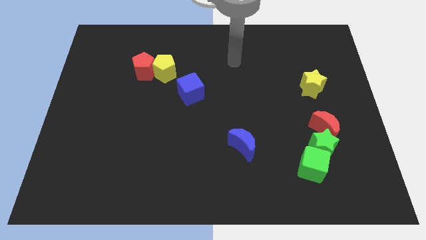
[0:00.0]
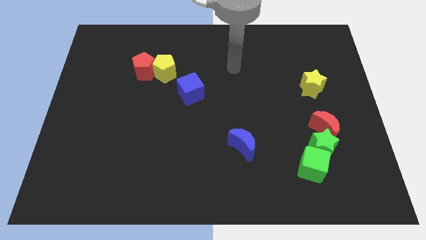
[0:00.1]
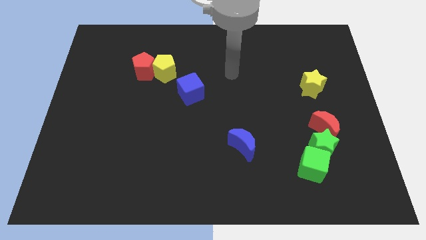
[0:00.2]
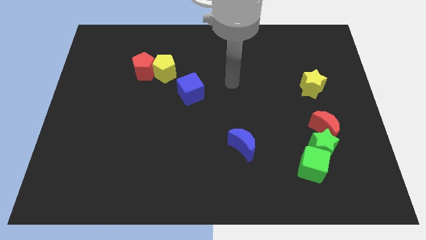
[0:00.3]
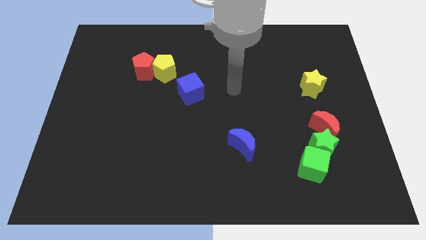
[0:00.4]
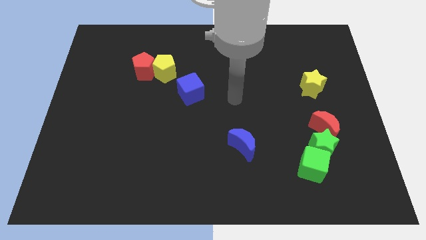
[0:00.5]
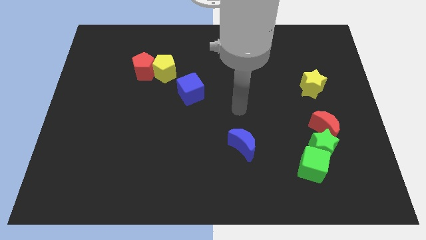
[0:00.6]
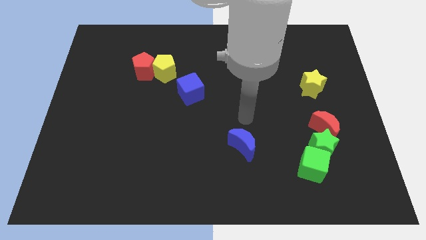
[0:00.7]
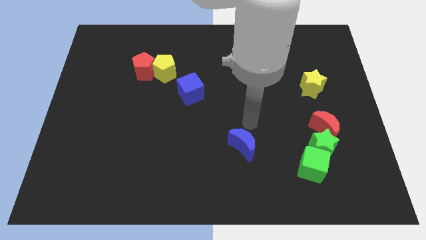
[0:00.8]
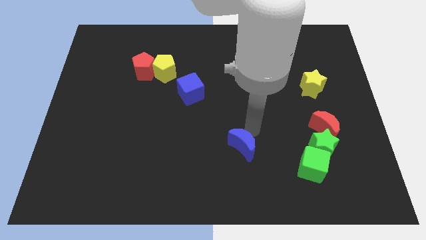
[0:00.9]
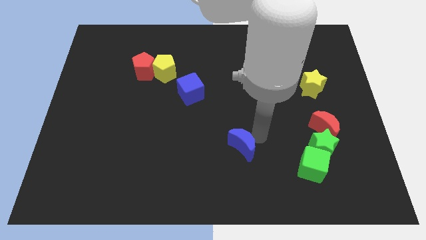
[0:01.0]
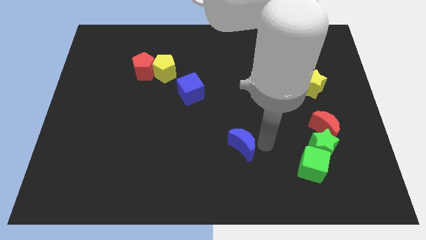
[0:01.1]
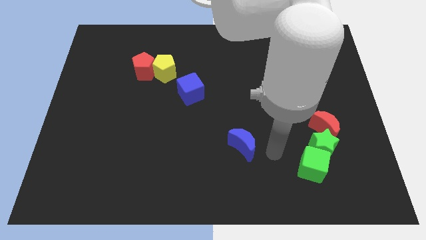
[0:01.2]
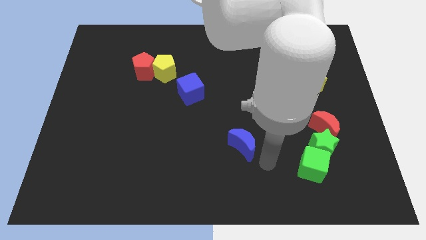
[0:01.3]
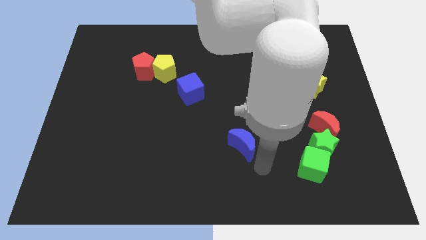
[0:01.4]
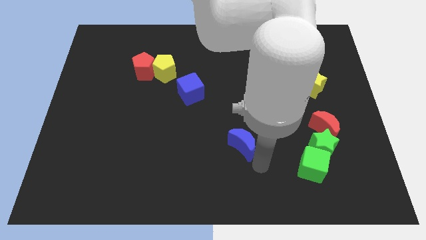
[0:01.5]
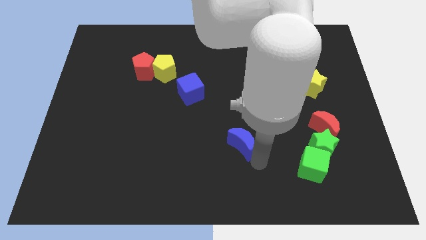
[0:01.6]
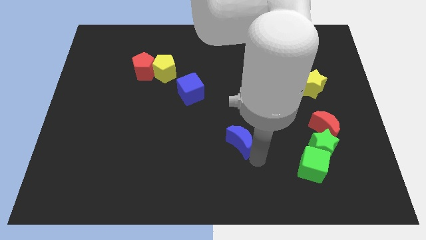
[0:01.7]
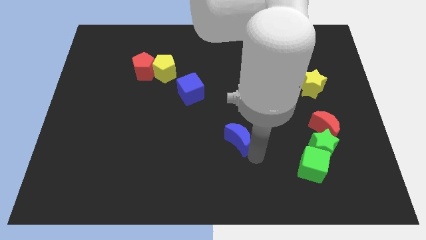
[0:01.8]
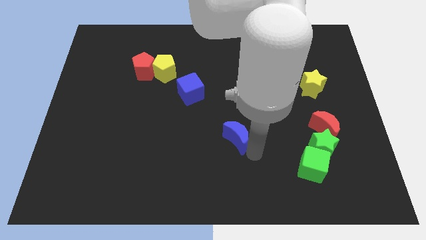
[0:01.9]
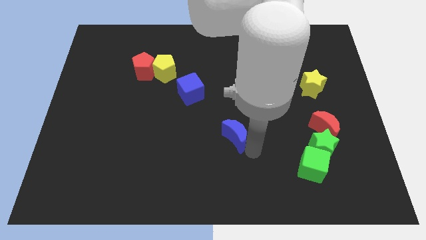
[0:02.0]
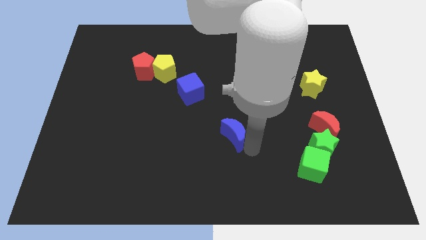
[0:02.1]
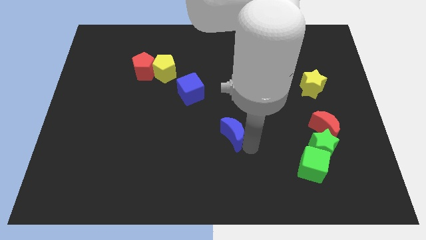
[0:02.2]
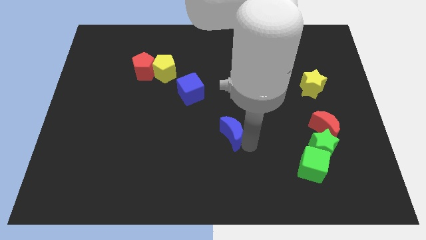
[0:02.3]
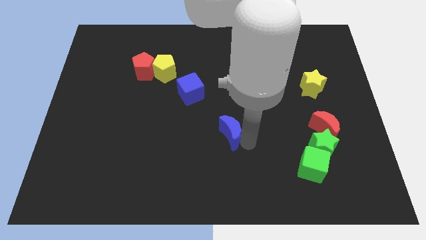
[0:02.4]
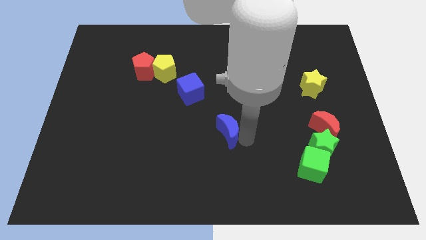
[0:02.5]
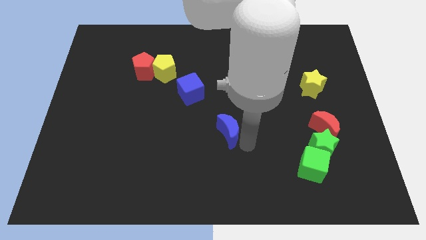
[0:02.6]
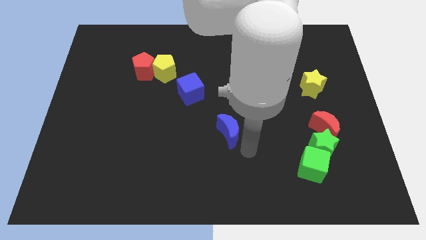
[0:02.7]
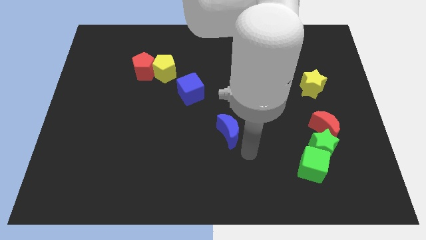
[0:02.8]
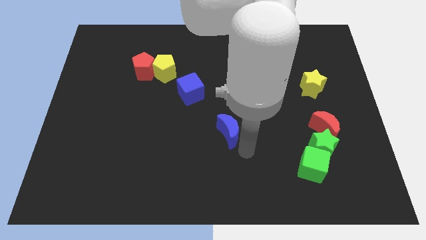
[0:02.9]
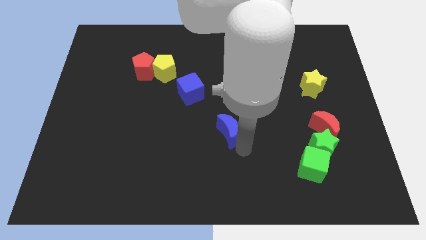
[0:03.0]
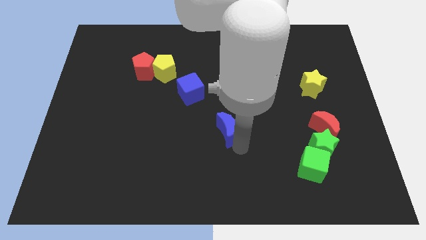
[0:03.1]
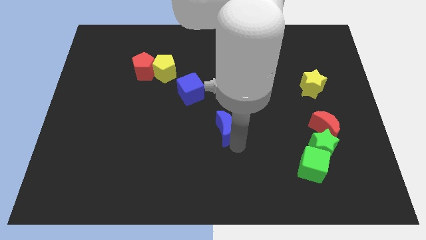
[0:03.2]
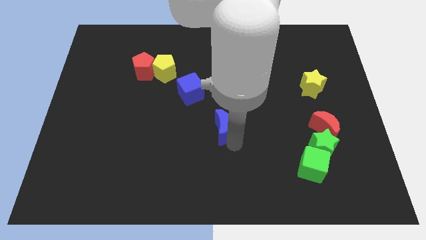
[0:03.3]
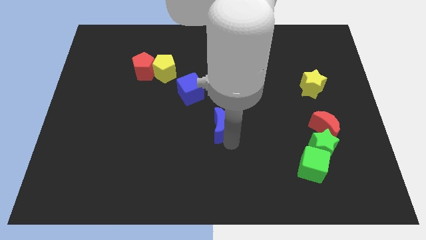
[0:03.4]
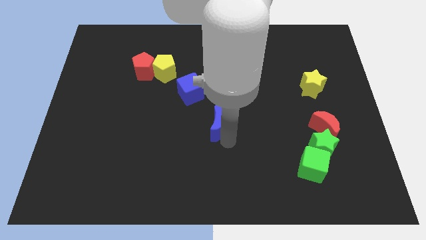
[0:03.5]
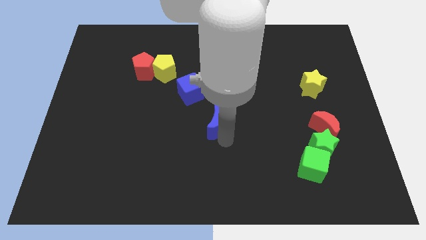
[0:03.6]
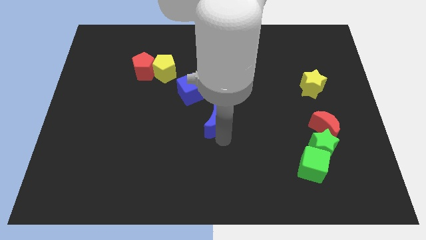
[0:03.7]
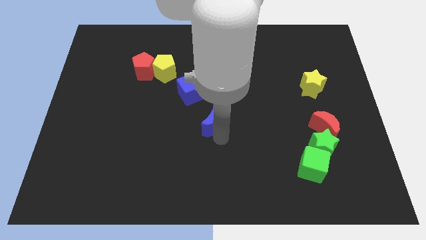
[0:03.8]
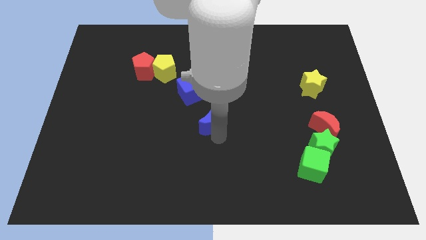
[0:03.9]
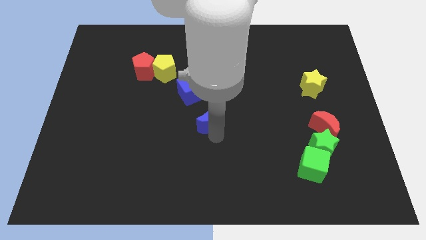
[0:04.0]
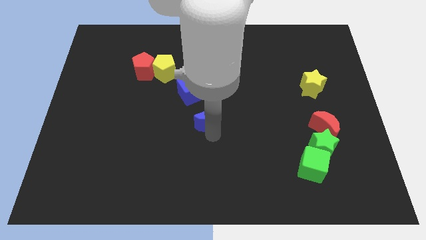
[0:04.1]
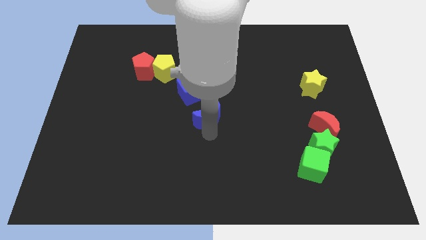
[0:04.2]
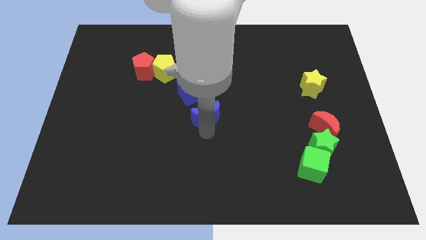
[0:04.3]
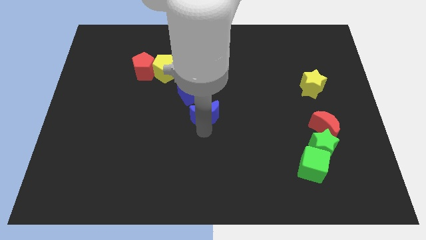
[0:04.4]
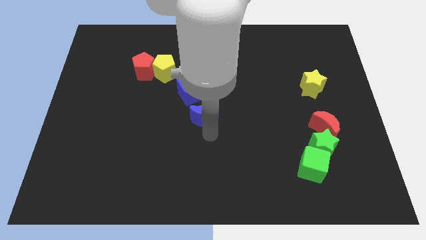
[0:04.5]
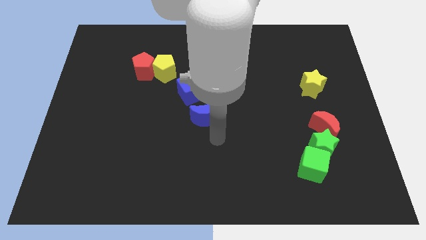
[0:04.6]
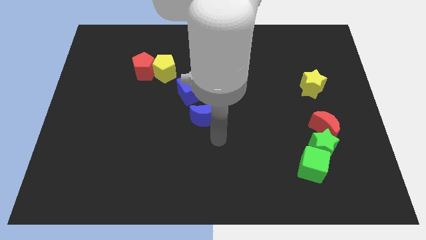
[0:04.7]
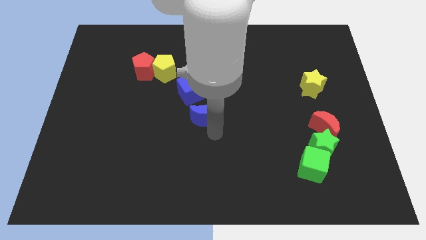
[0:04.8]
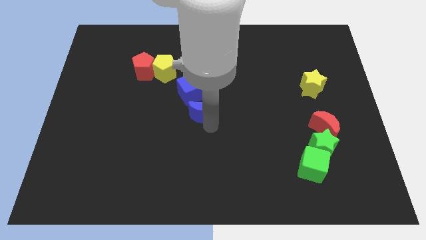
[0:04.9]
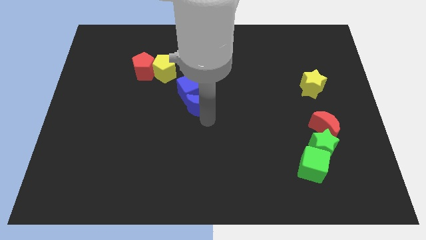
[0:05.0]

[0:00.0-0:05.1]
move the blue moon next to the blue cube

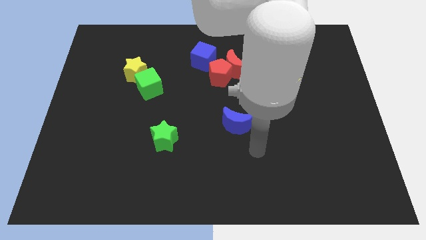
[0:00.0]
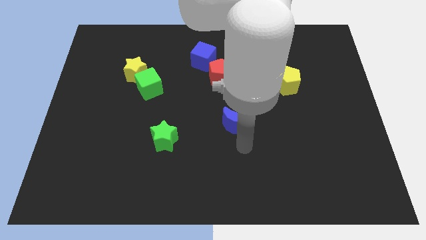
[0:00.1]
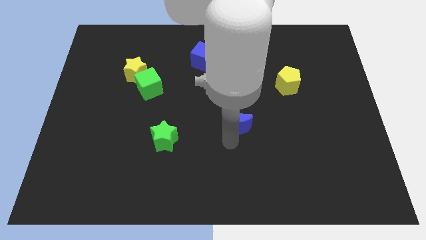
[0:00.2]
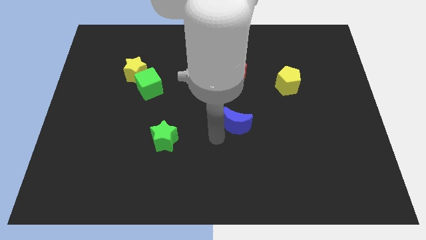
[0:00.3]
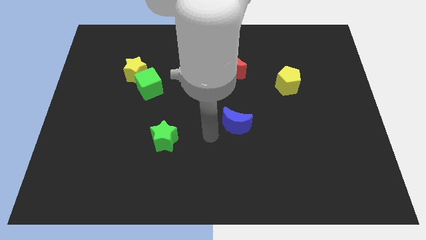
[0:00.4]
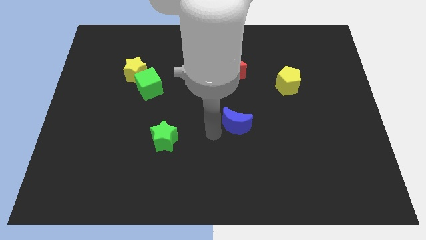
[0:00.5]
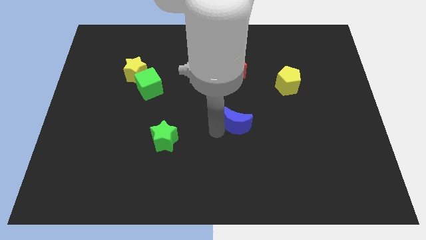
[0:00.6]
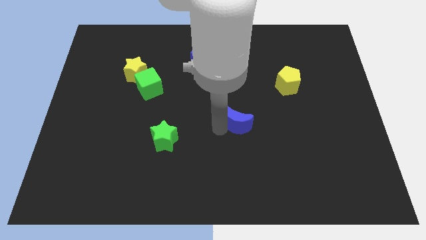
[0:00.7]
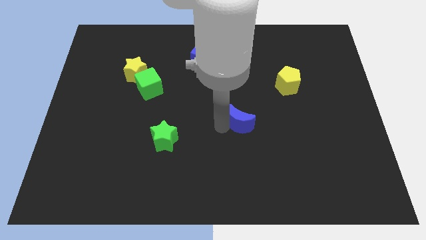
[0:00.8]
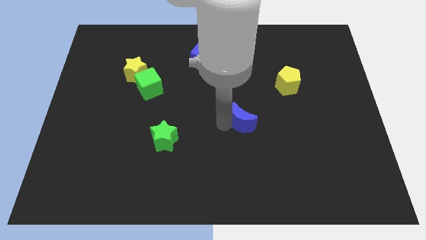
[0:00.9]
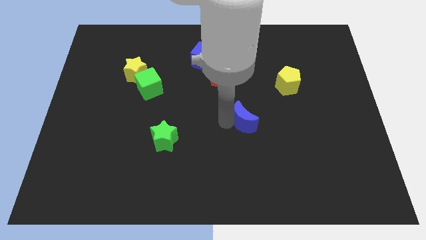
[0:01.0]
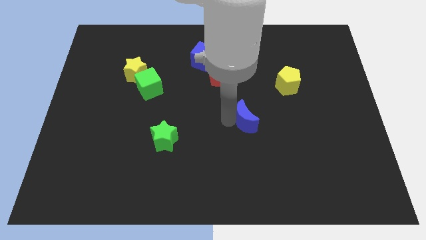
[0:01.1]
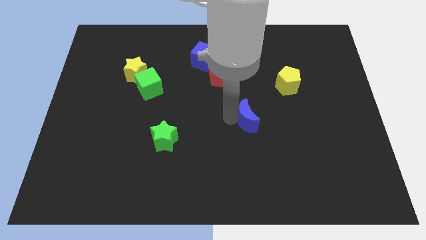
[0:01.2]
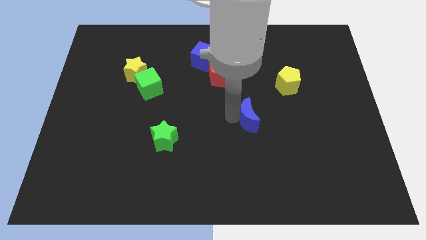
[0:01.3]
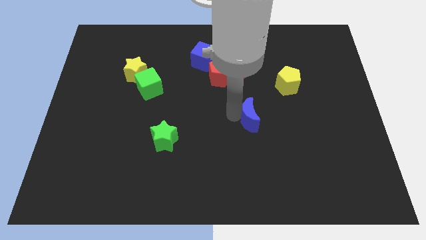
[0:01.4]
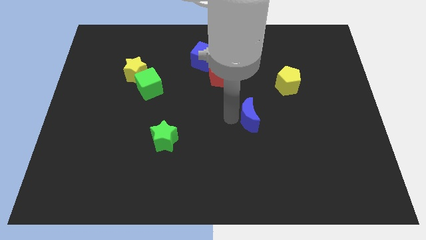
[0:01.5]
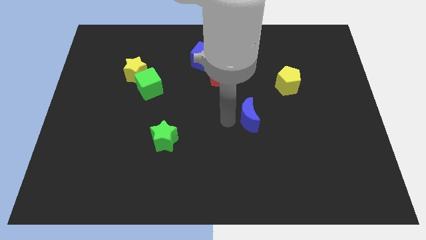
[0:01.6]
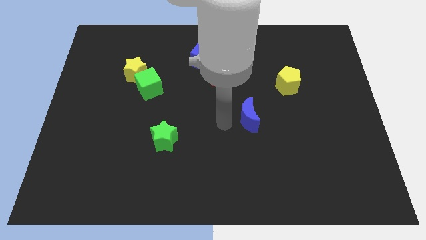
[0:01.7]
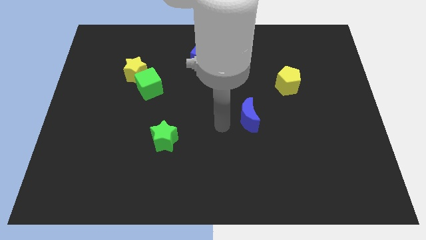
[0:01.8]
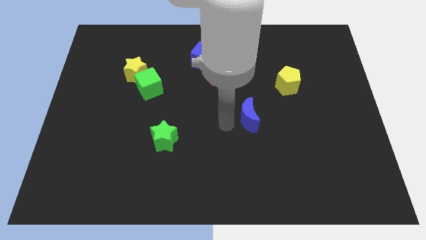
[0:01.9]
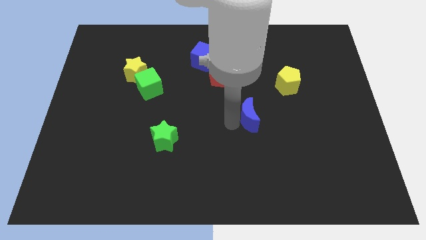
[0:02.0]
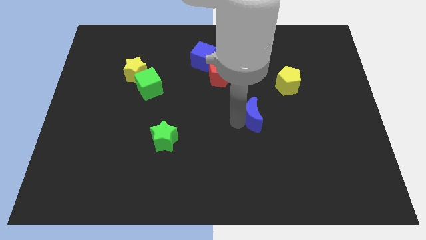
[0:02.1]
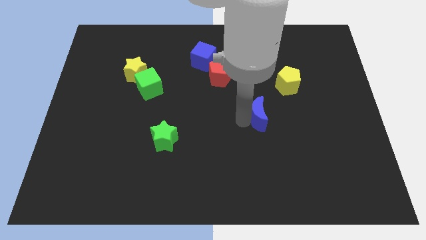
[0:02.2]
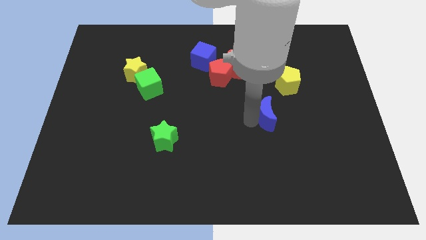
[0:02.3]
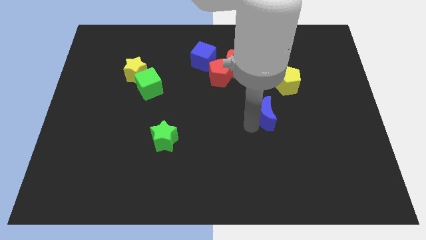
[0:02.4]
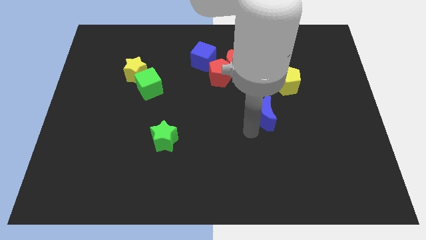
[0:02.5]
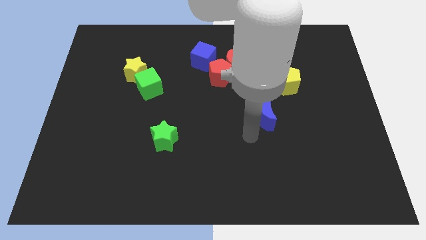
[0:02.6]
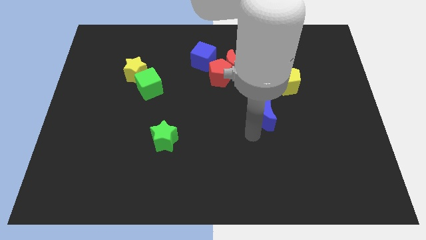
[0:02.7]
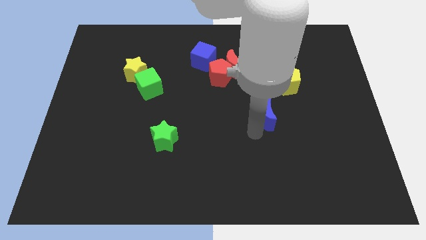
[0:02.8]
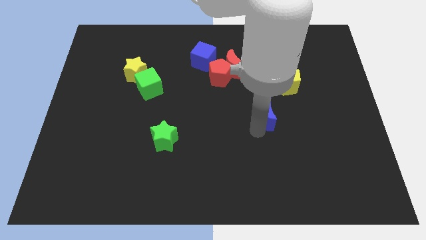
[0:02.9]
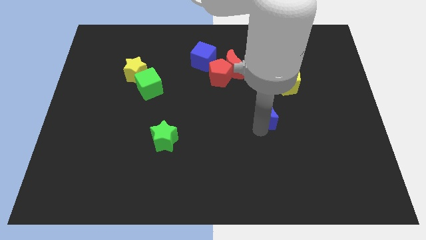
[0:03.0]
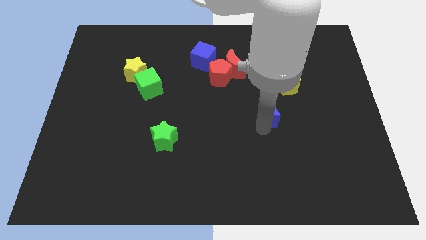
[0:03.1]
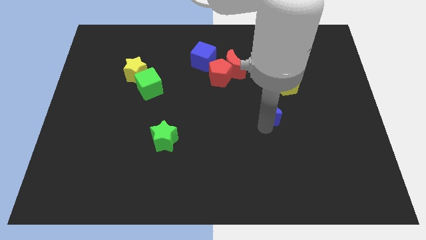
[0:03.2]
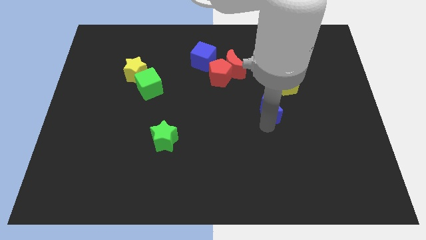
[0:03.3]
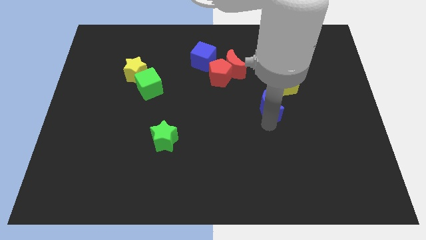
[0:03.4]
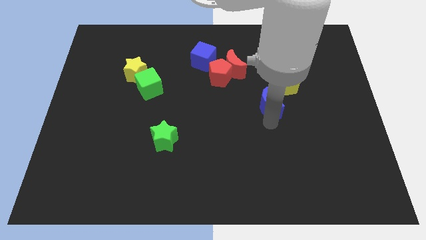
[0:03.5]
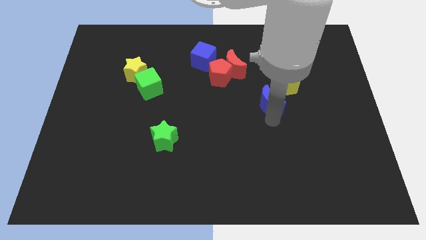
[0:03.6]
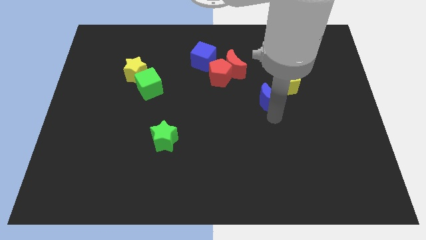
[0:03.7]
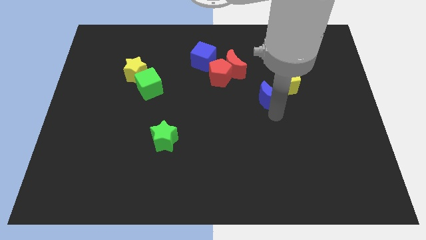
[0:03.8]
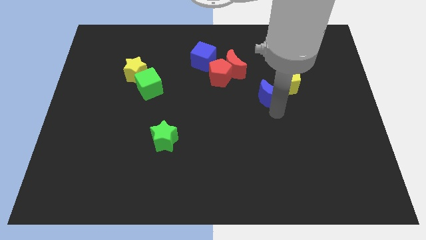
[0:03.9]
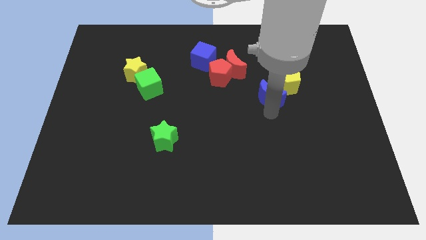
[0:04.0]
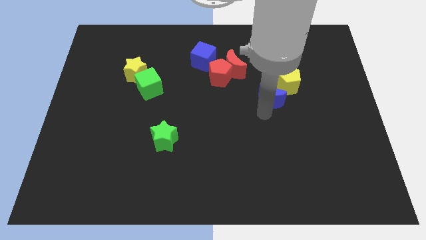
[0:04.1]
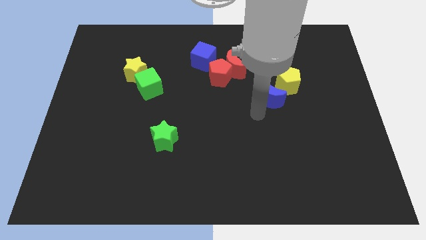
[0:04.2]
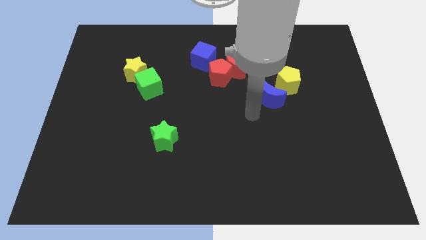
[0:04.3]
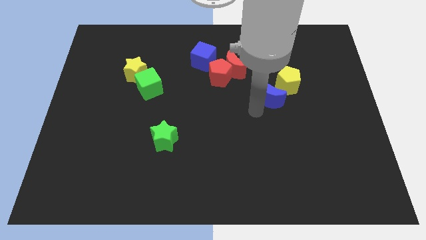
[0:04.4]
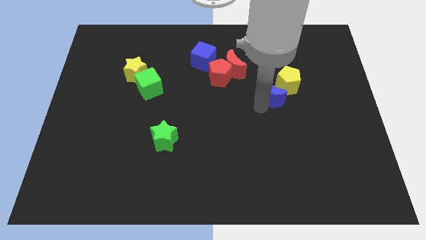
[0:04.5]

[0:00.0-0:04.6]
move the blue moon close to the yellow pentagon
